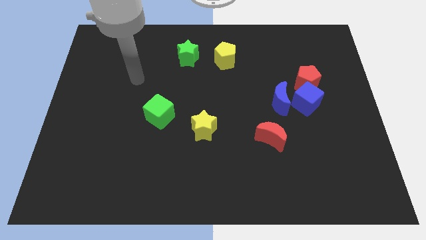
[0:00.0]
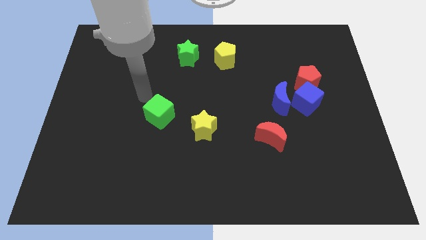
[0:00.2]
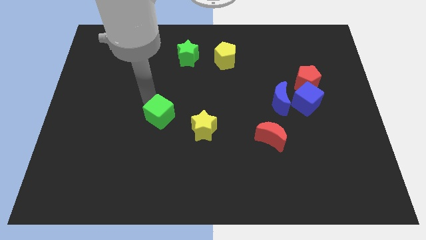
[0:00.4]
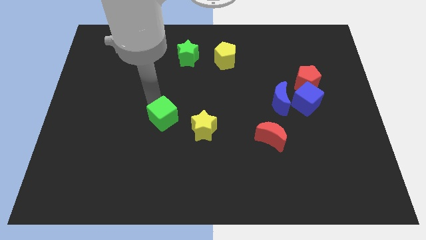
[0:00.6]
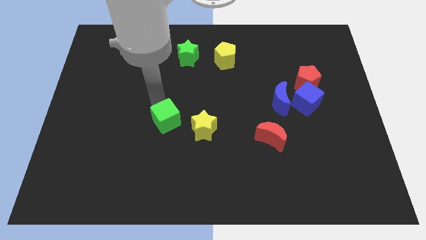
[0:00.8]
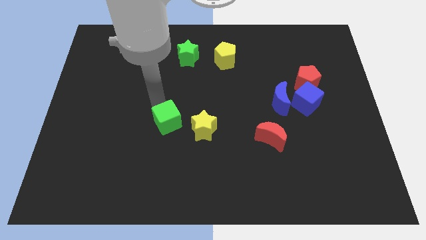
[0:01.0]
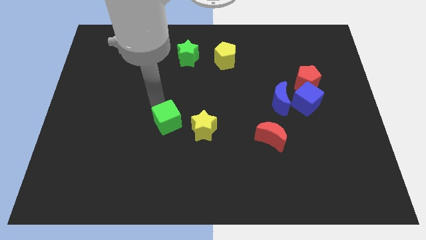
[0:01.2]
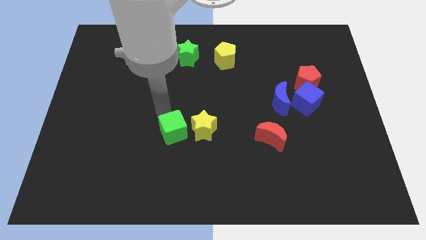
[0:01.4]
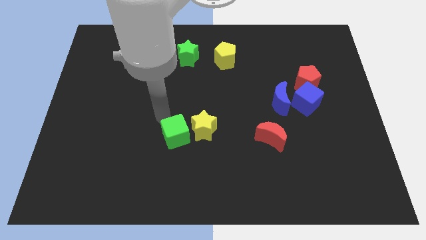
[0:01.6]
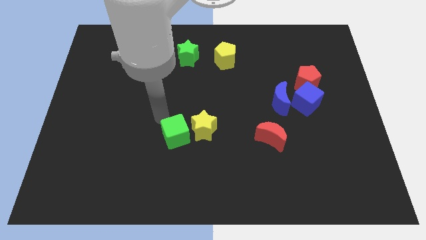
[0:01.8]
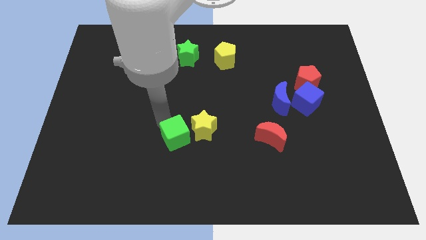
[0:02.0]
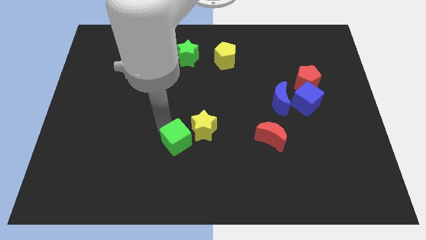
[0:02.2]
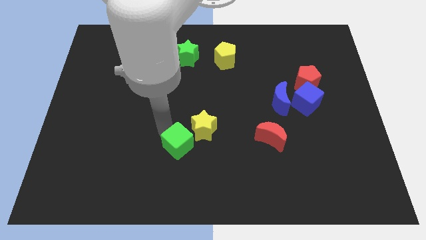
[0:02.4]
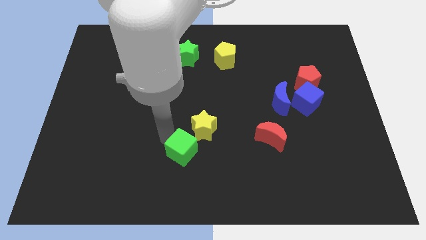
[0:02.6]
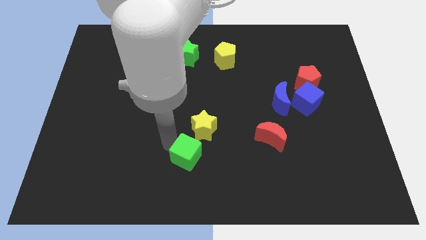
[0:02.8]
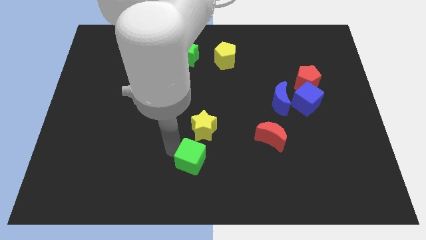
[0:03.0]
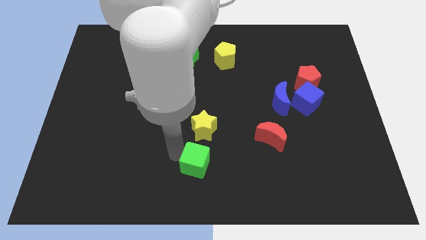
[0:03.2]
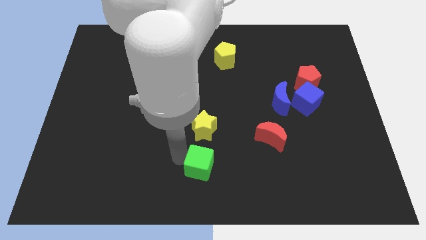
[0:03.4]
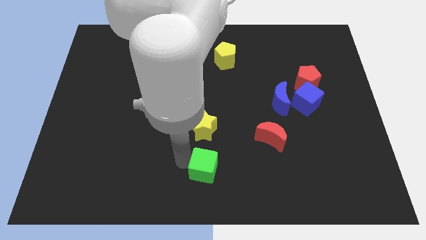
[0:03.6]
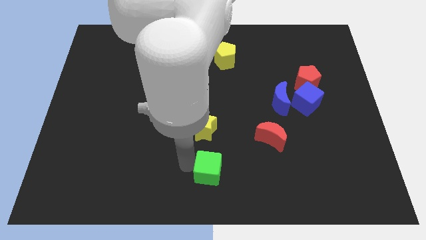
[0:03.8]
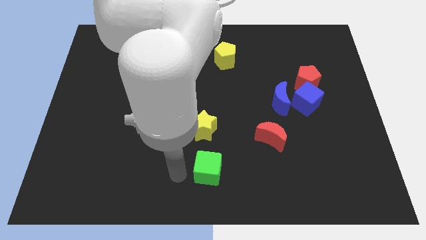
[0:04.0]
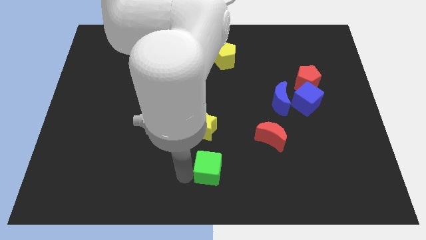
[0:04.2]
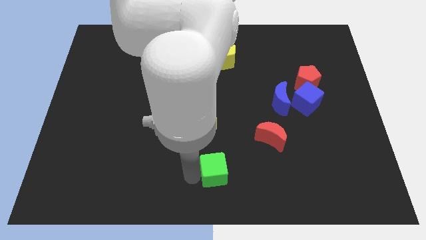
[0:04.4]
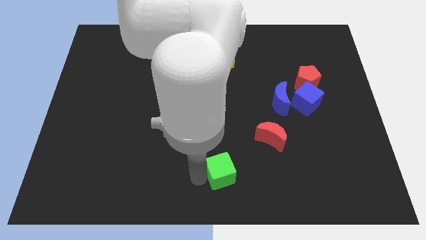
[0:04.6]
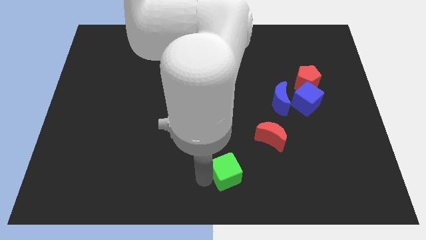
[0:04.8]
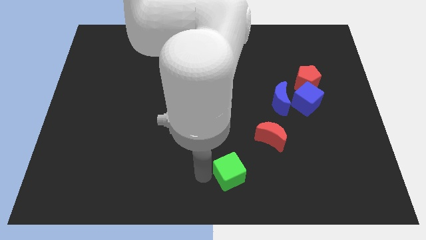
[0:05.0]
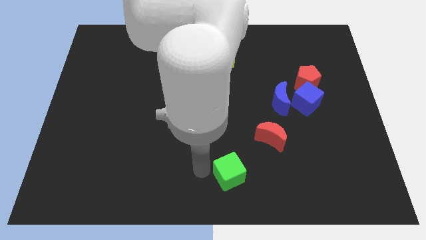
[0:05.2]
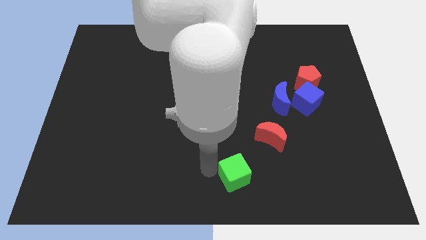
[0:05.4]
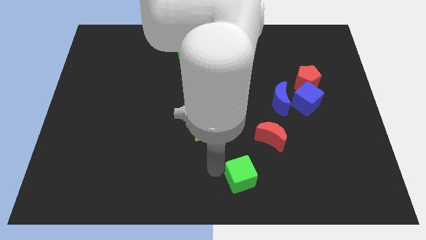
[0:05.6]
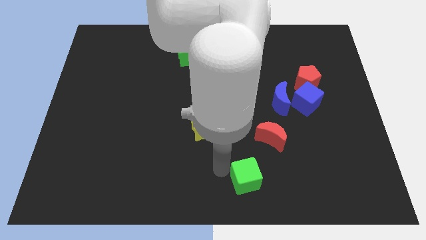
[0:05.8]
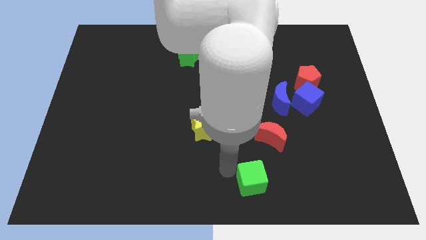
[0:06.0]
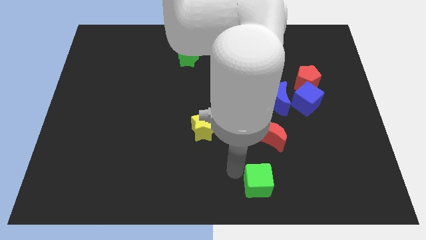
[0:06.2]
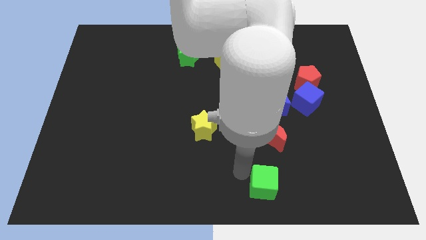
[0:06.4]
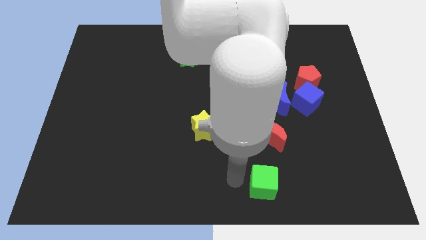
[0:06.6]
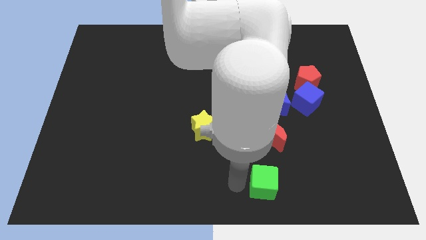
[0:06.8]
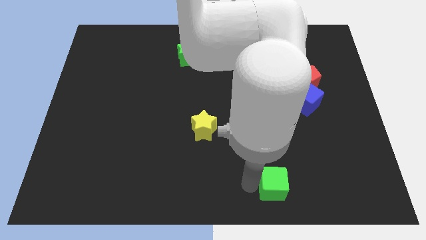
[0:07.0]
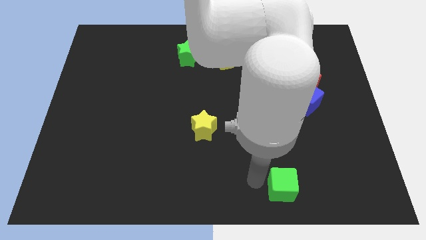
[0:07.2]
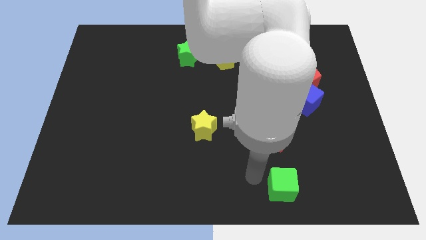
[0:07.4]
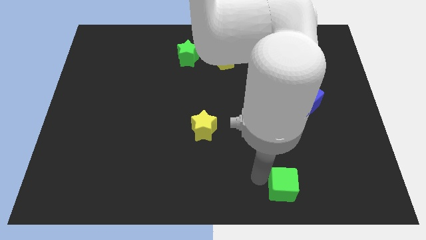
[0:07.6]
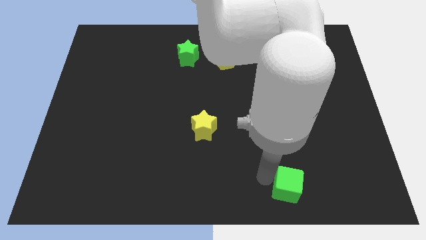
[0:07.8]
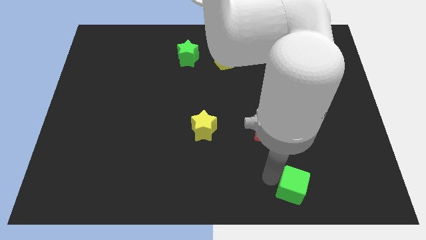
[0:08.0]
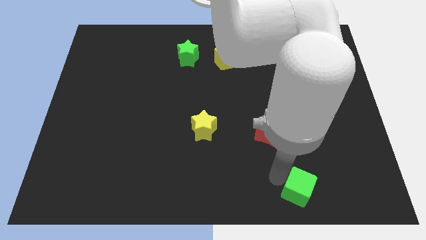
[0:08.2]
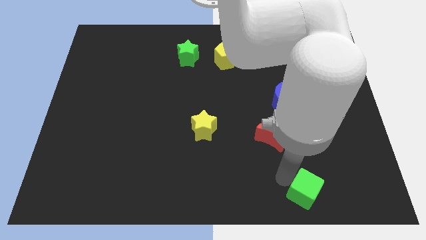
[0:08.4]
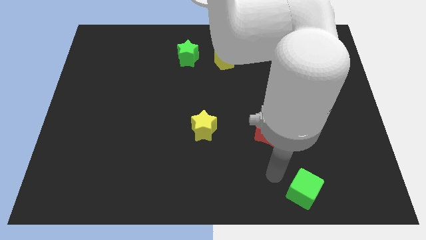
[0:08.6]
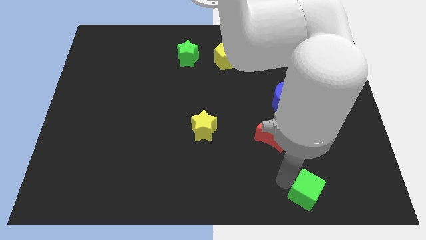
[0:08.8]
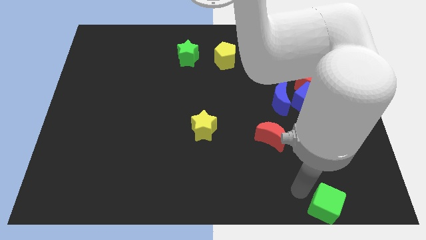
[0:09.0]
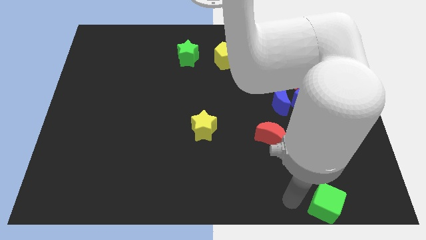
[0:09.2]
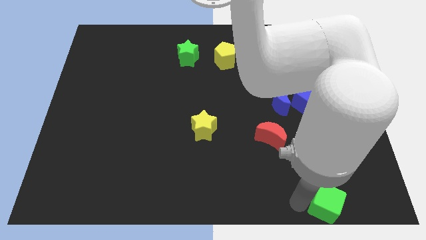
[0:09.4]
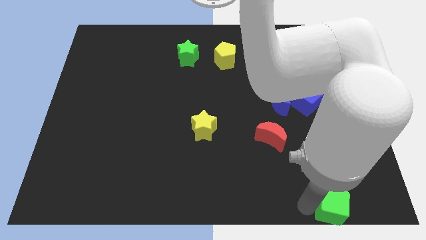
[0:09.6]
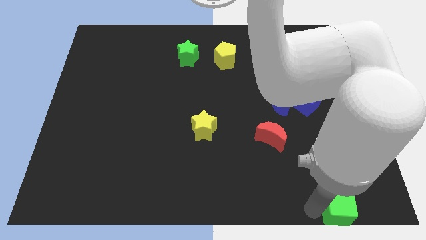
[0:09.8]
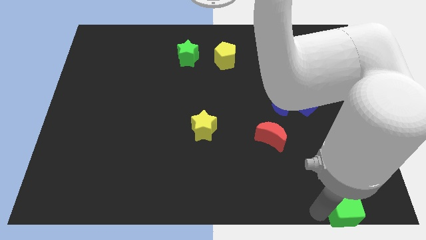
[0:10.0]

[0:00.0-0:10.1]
push the green cube to the bottom right

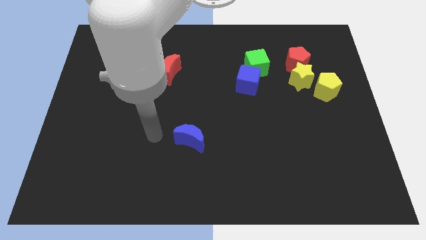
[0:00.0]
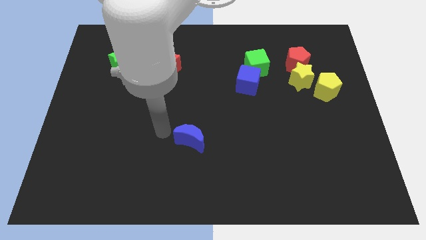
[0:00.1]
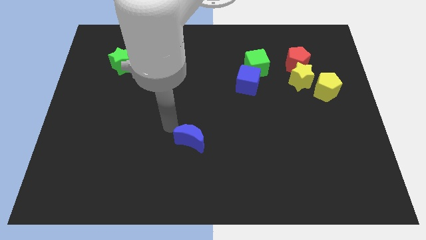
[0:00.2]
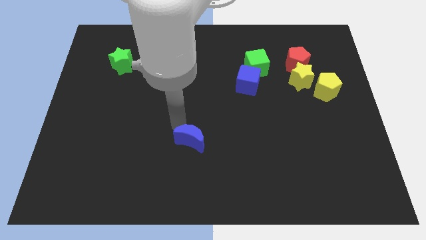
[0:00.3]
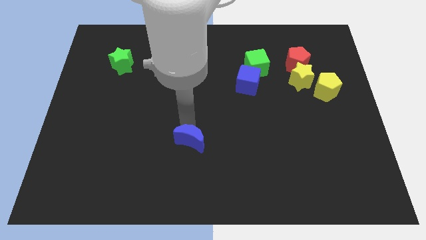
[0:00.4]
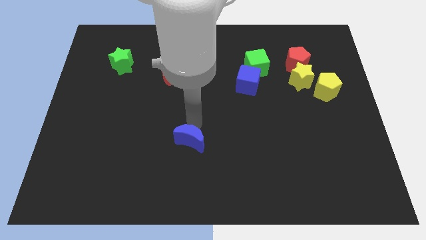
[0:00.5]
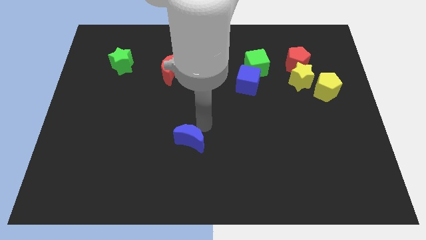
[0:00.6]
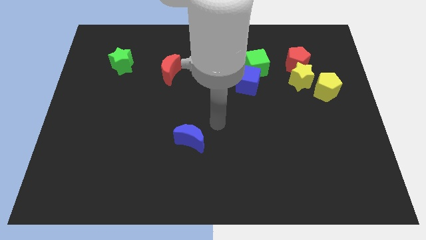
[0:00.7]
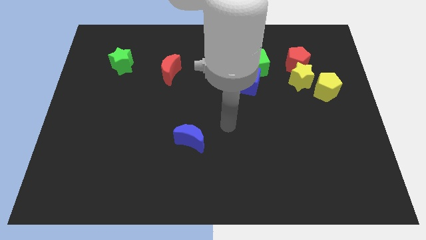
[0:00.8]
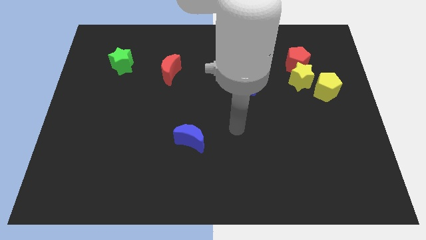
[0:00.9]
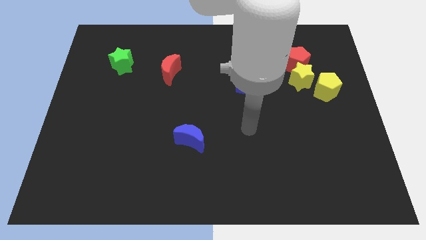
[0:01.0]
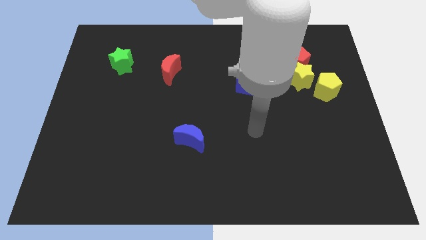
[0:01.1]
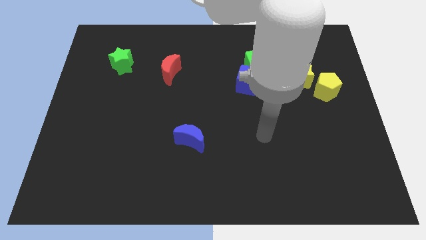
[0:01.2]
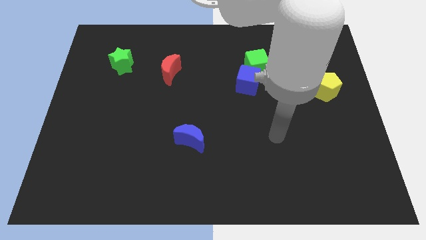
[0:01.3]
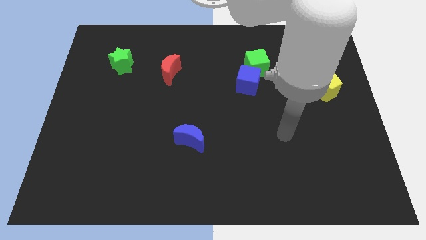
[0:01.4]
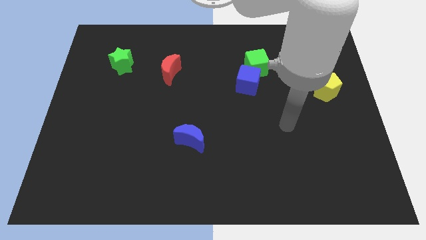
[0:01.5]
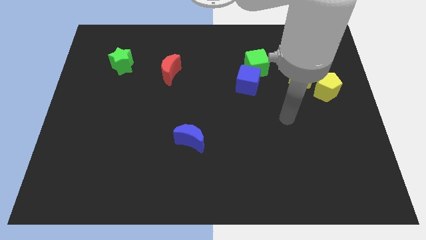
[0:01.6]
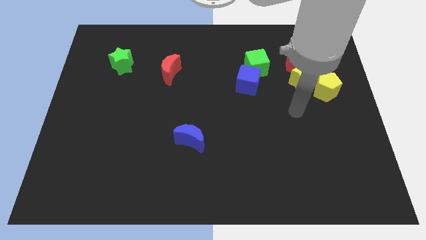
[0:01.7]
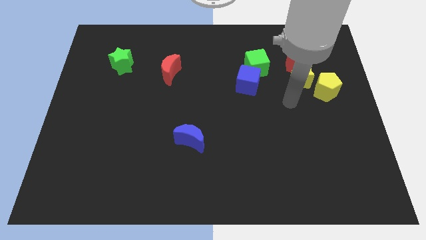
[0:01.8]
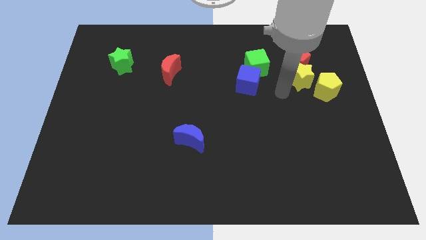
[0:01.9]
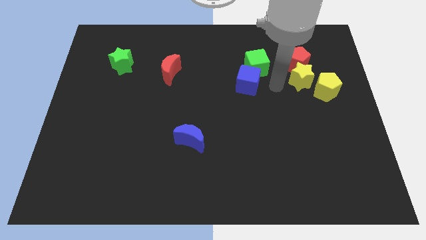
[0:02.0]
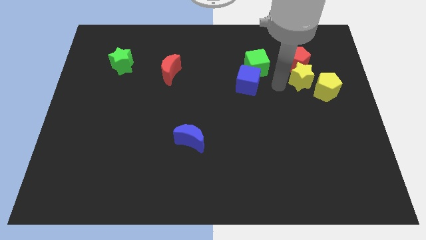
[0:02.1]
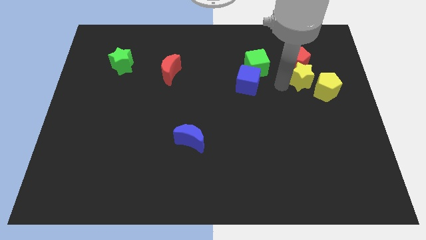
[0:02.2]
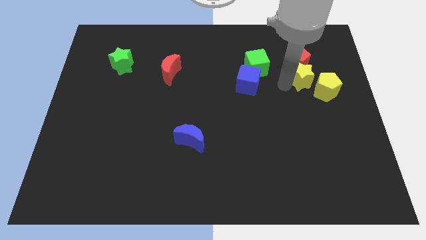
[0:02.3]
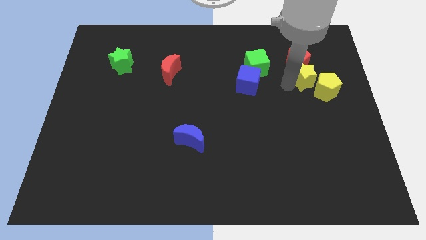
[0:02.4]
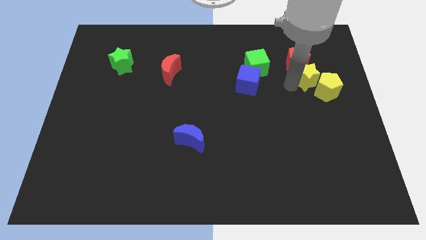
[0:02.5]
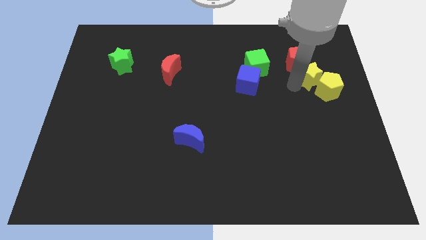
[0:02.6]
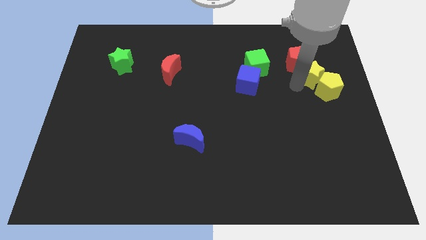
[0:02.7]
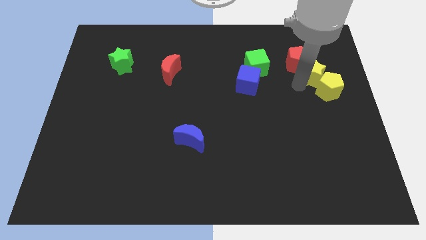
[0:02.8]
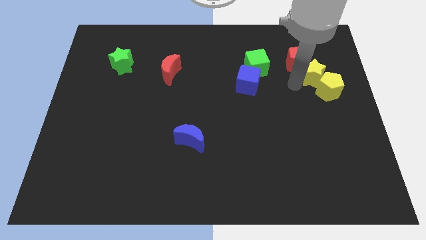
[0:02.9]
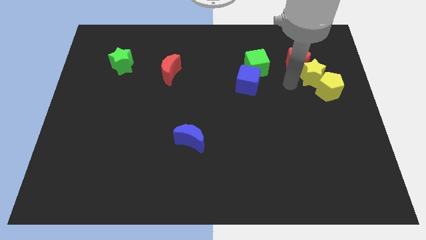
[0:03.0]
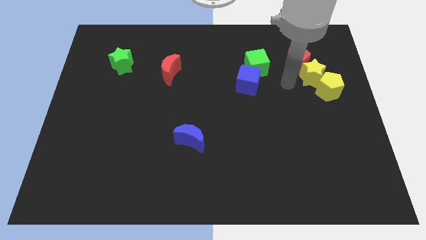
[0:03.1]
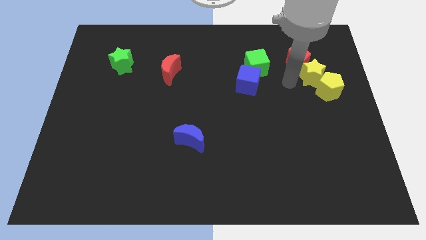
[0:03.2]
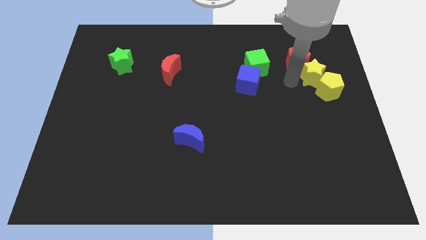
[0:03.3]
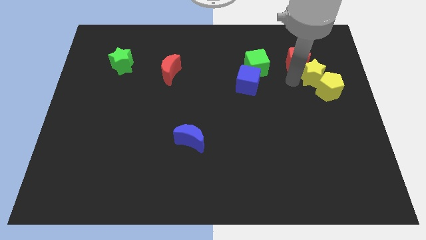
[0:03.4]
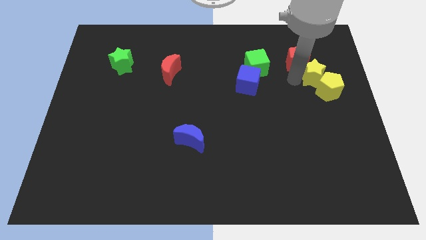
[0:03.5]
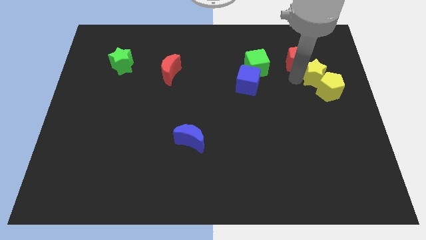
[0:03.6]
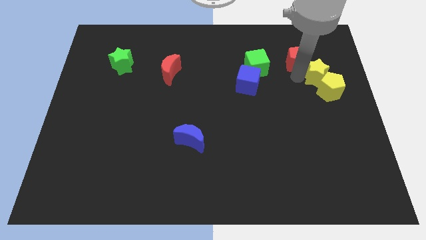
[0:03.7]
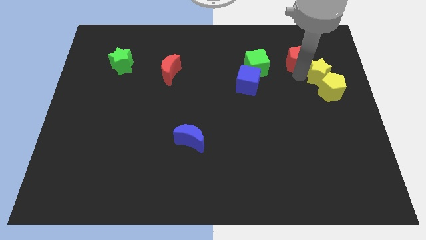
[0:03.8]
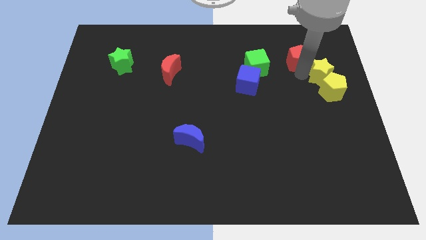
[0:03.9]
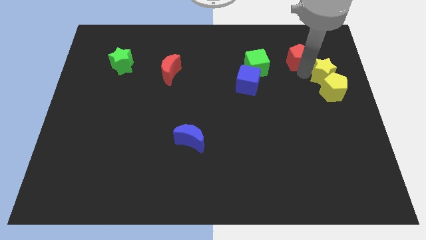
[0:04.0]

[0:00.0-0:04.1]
push the yellow star to the right side
